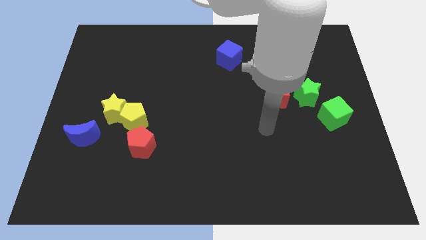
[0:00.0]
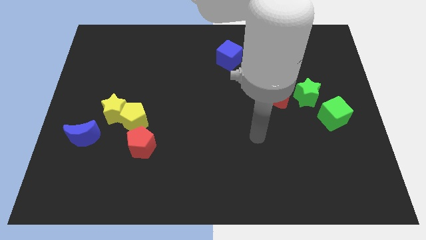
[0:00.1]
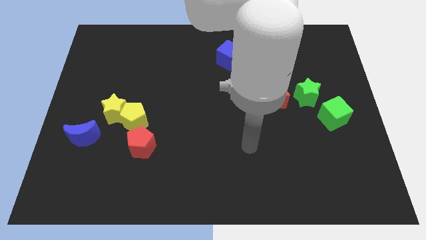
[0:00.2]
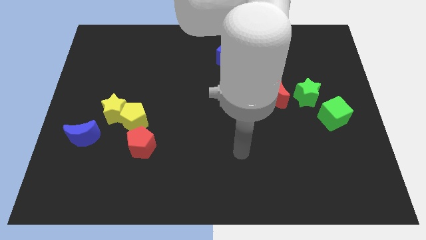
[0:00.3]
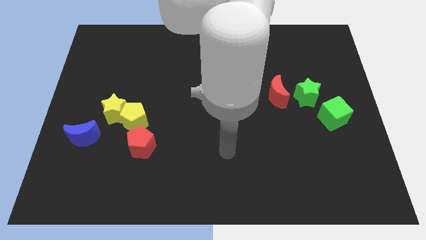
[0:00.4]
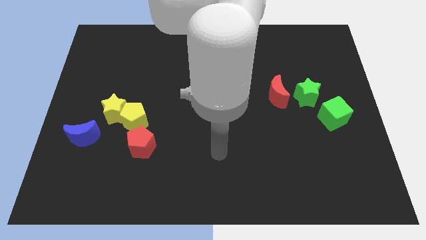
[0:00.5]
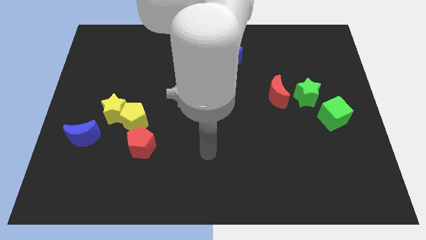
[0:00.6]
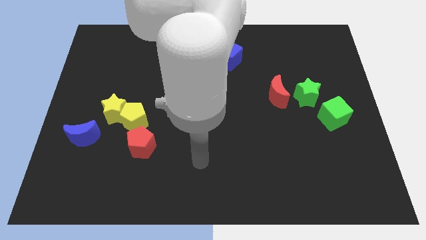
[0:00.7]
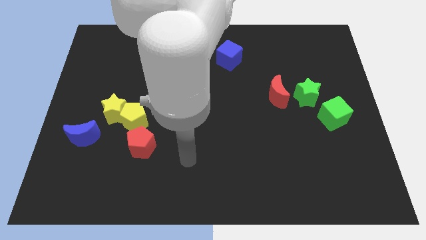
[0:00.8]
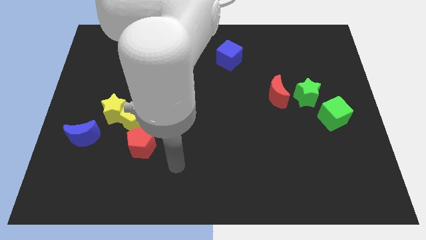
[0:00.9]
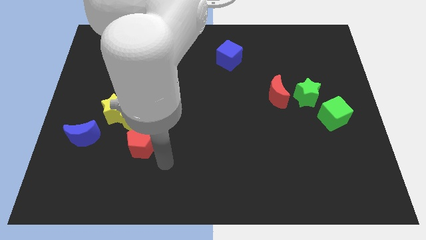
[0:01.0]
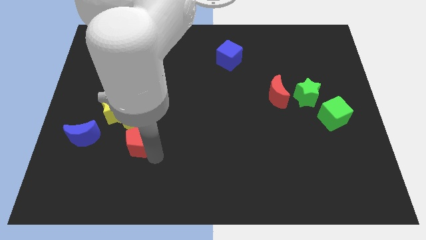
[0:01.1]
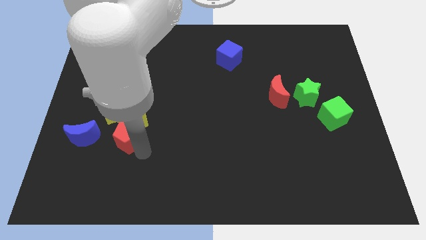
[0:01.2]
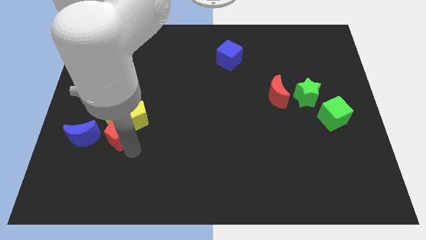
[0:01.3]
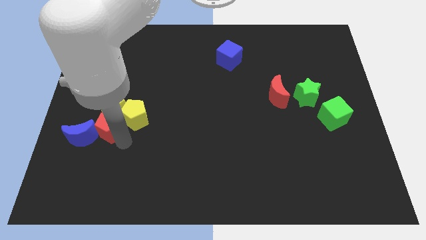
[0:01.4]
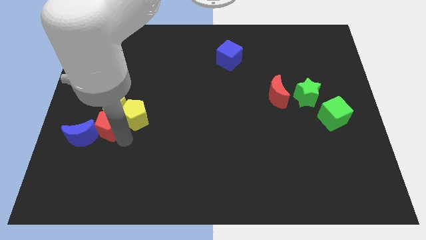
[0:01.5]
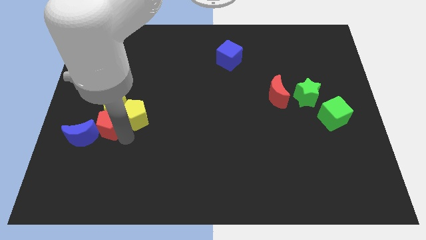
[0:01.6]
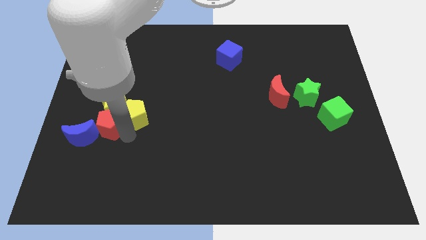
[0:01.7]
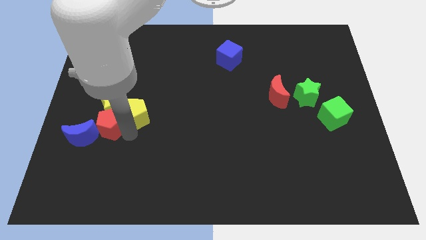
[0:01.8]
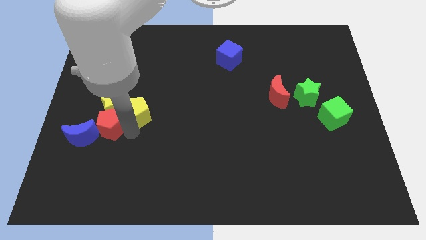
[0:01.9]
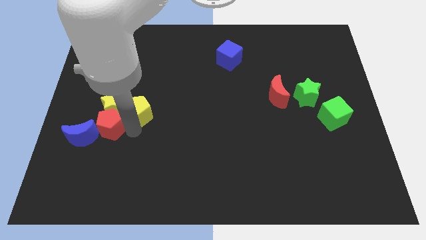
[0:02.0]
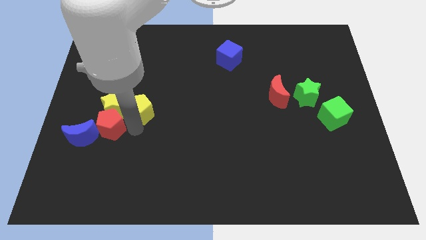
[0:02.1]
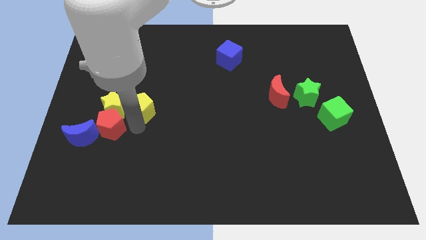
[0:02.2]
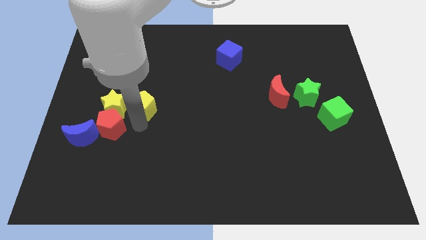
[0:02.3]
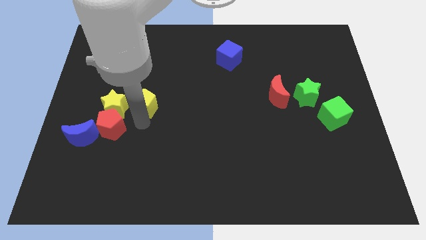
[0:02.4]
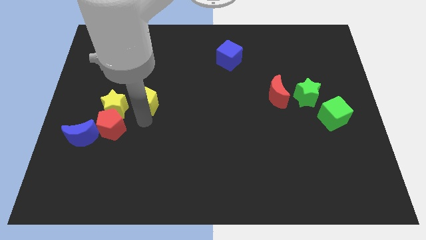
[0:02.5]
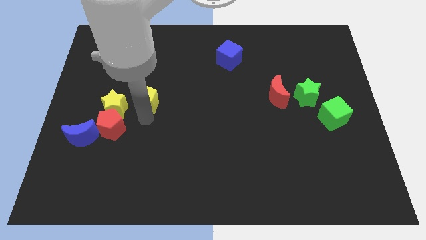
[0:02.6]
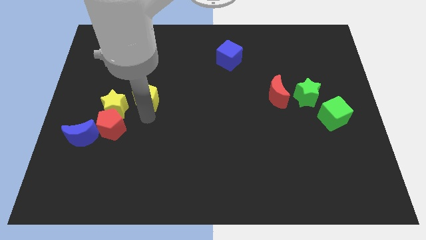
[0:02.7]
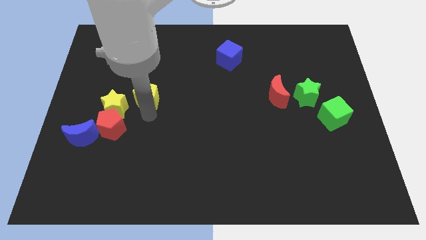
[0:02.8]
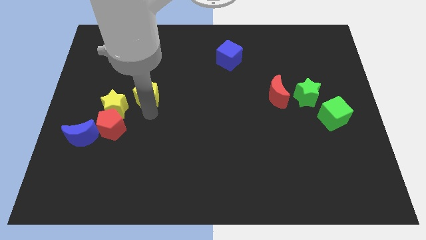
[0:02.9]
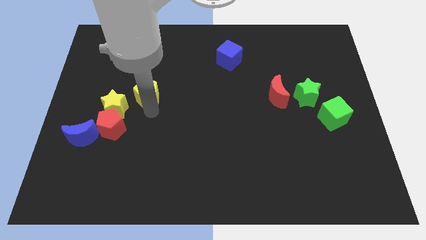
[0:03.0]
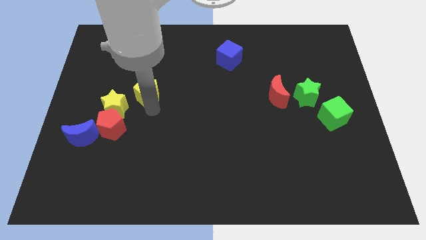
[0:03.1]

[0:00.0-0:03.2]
separate the yellow pentagon from the yellow star and red pentagon

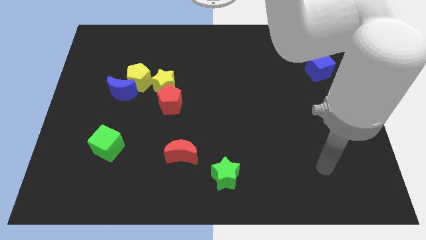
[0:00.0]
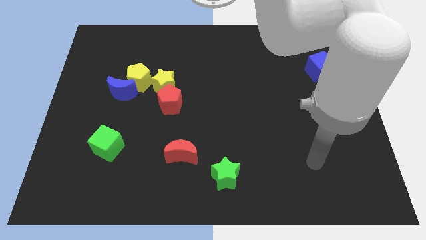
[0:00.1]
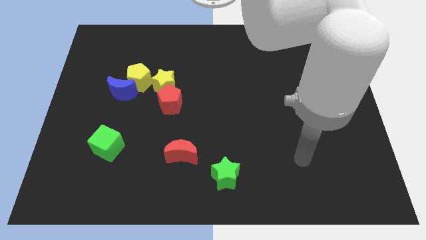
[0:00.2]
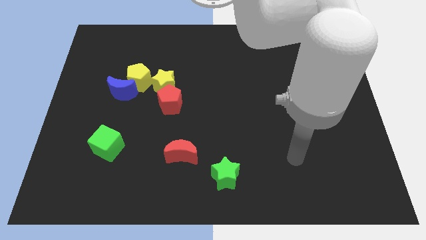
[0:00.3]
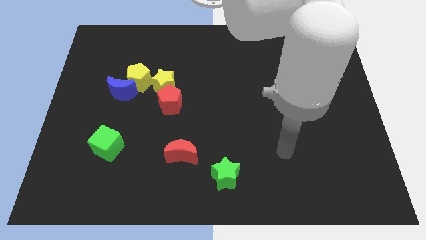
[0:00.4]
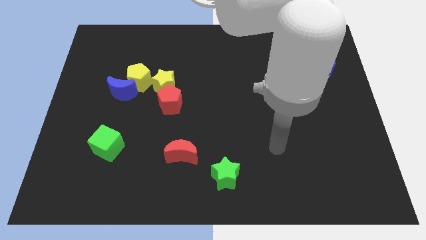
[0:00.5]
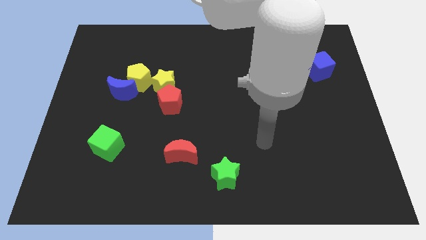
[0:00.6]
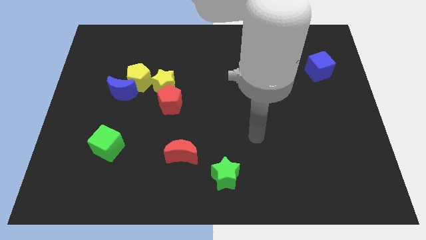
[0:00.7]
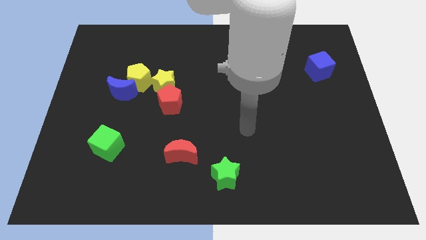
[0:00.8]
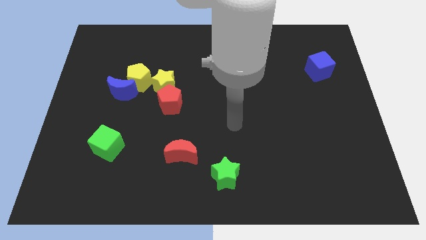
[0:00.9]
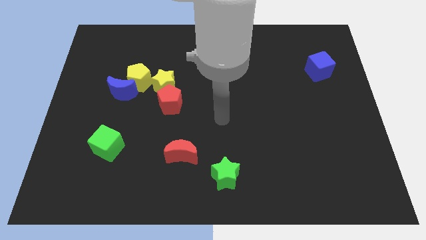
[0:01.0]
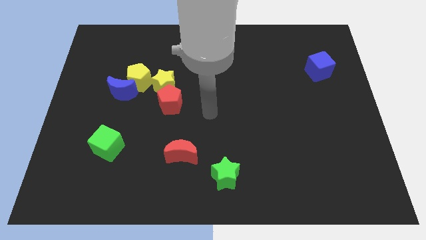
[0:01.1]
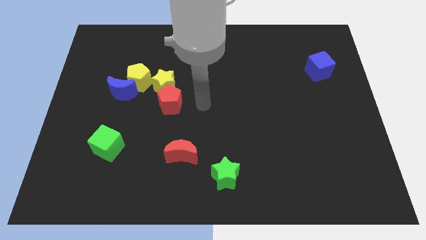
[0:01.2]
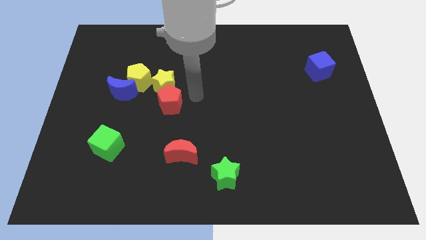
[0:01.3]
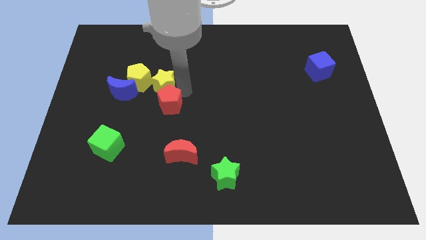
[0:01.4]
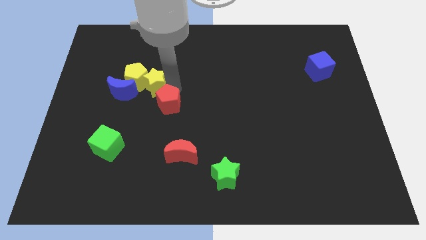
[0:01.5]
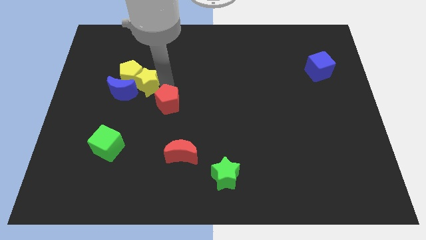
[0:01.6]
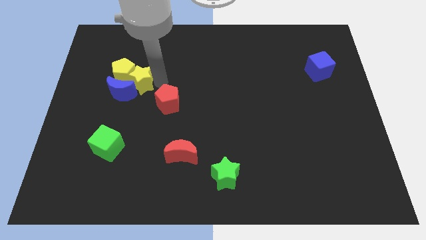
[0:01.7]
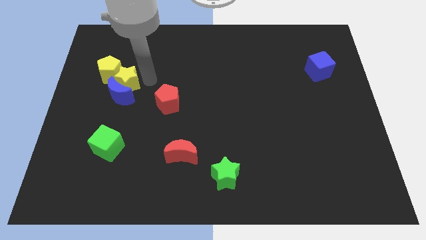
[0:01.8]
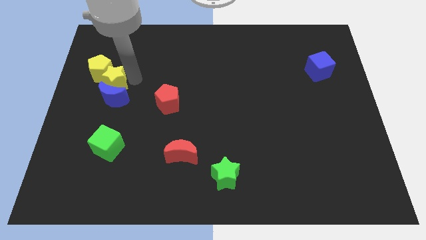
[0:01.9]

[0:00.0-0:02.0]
separate the blue moon from the yellow pentagon

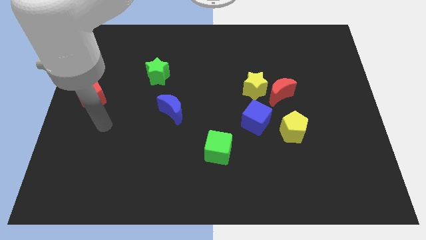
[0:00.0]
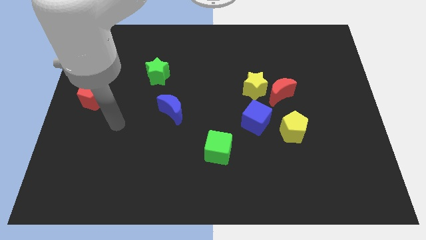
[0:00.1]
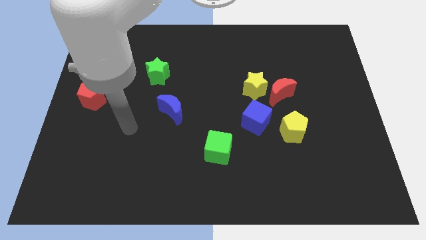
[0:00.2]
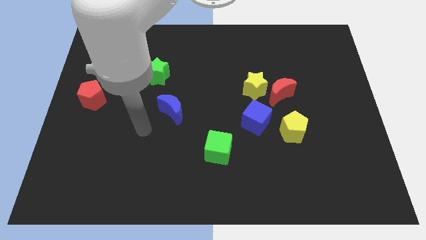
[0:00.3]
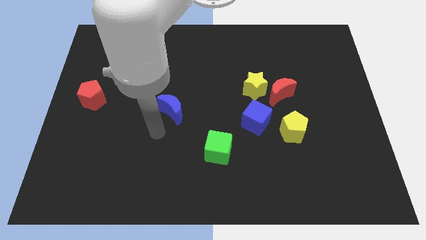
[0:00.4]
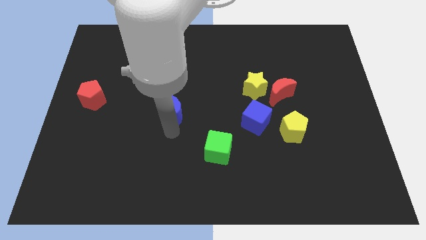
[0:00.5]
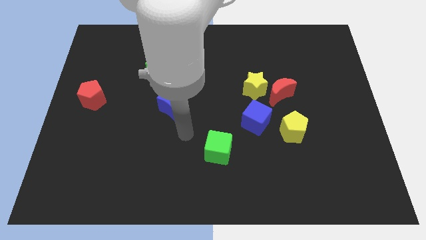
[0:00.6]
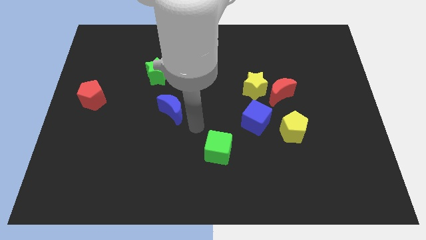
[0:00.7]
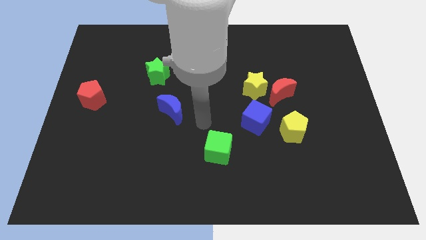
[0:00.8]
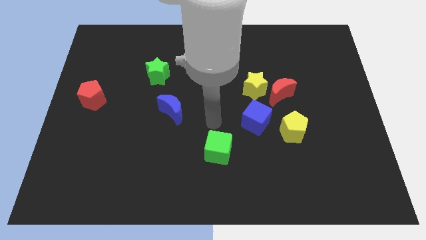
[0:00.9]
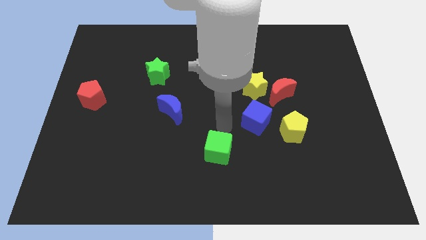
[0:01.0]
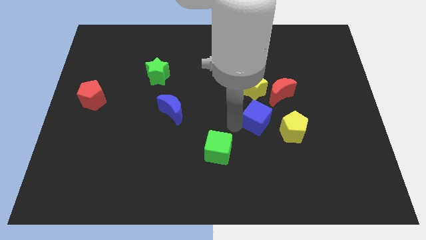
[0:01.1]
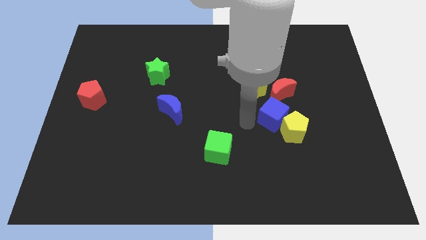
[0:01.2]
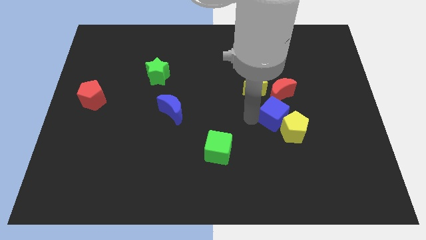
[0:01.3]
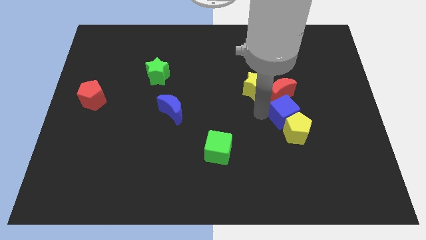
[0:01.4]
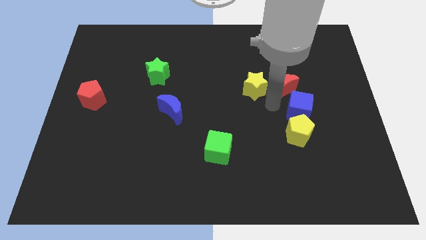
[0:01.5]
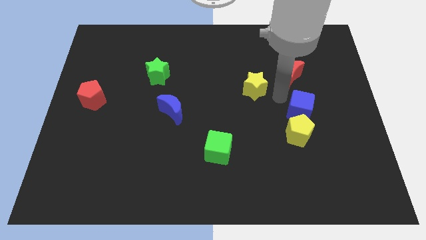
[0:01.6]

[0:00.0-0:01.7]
pull the yellow star apart from the red moon and blue cube

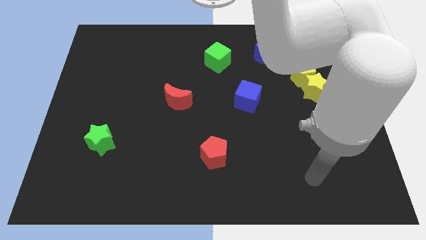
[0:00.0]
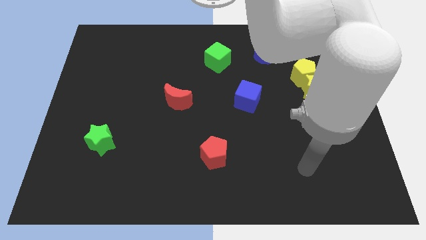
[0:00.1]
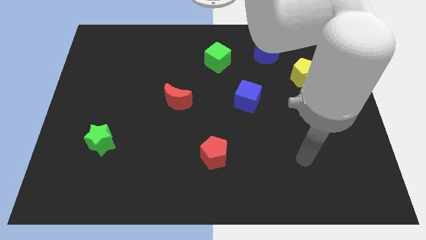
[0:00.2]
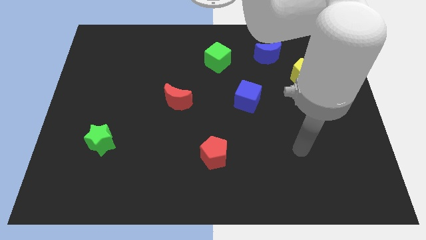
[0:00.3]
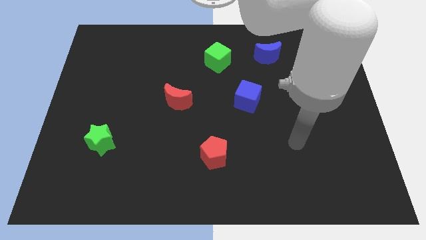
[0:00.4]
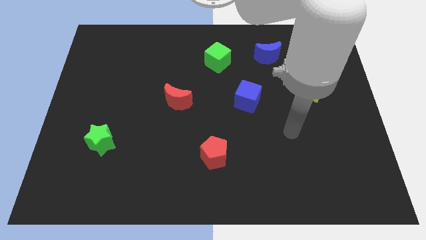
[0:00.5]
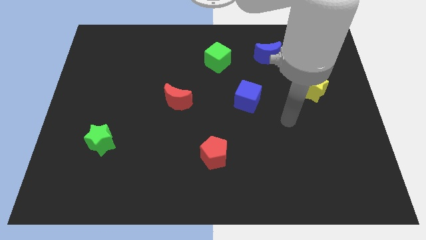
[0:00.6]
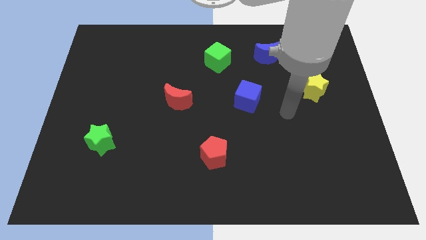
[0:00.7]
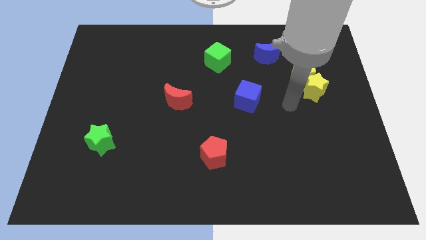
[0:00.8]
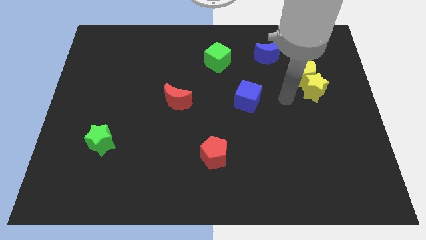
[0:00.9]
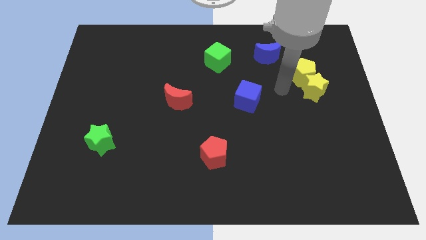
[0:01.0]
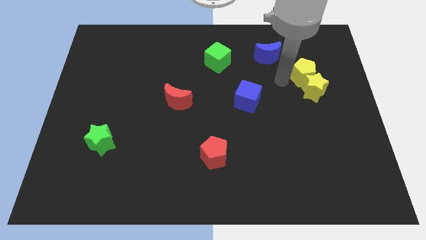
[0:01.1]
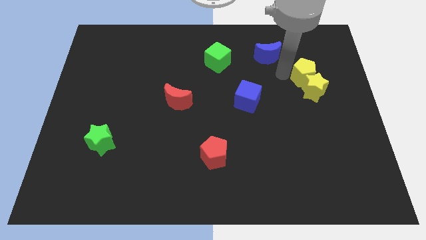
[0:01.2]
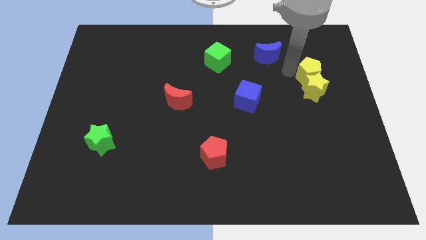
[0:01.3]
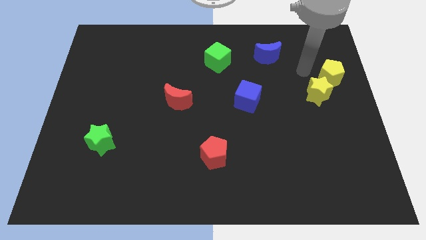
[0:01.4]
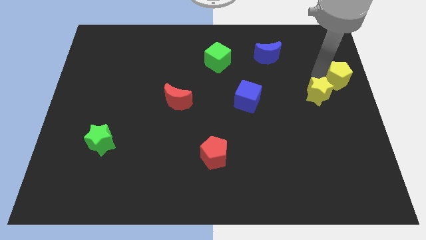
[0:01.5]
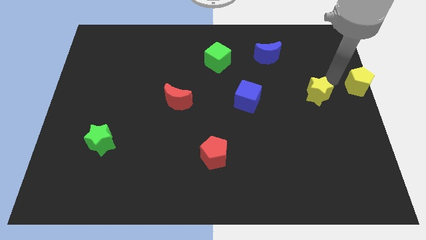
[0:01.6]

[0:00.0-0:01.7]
move the yellow star away from the yellow pentagon

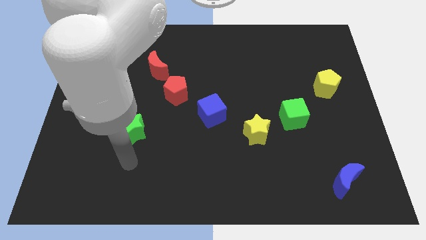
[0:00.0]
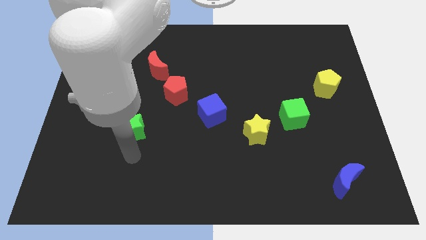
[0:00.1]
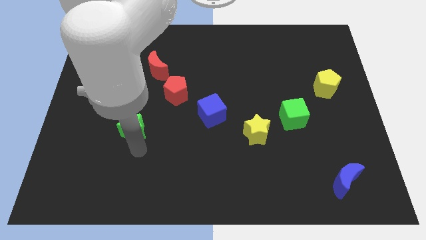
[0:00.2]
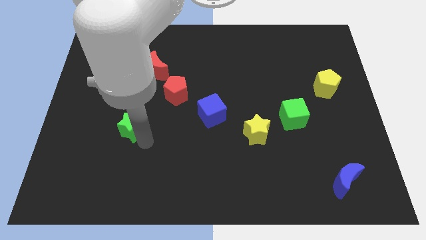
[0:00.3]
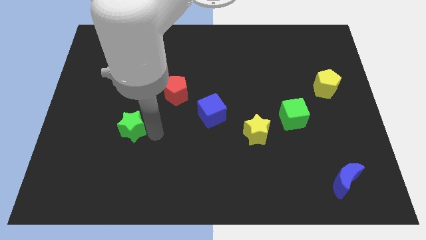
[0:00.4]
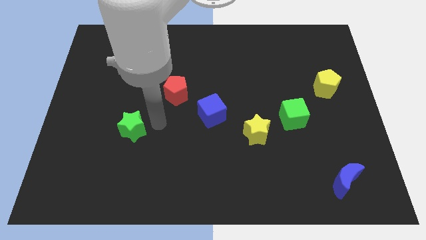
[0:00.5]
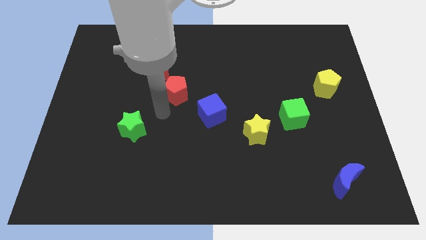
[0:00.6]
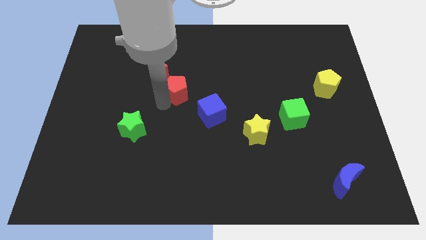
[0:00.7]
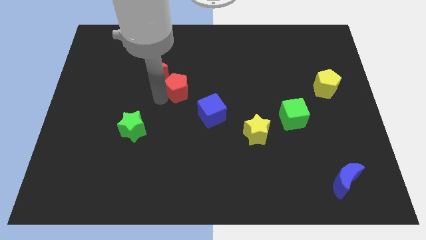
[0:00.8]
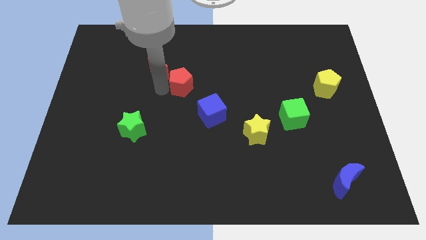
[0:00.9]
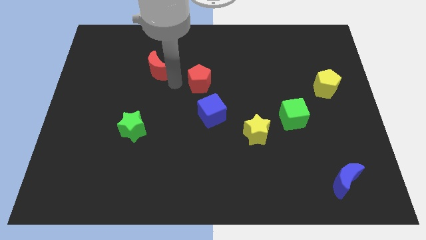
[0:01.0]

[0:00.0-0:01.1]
move the red moon away from the red pentagon
